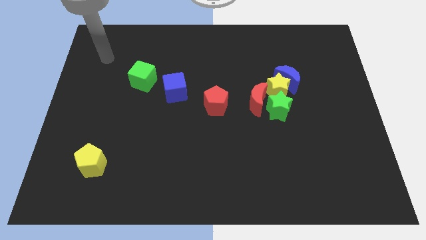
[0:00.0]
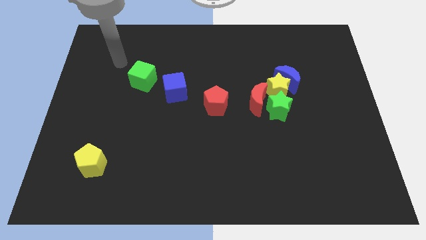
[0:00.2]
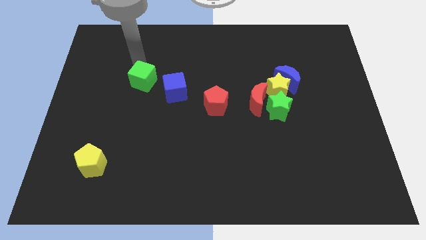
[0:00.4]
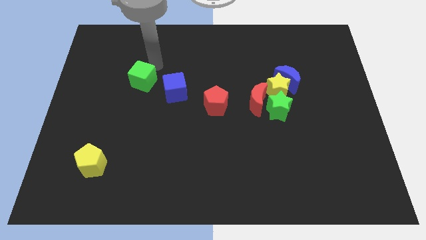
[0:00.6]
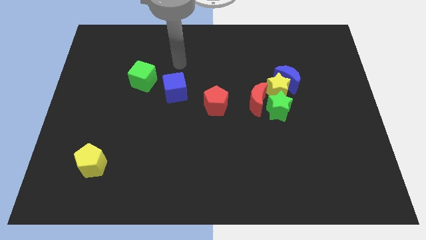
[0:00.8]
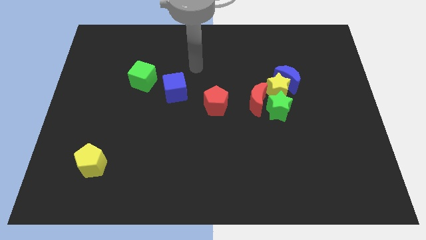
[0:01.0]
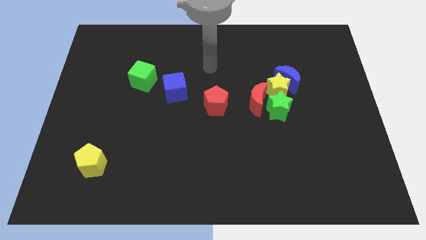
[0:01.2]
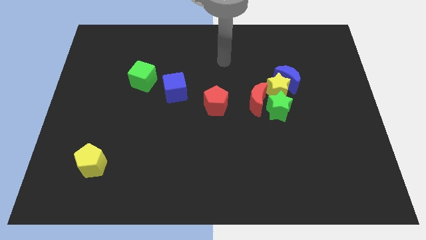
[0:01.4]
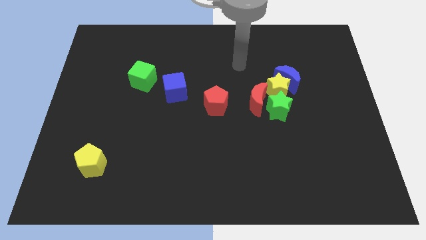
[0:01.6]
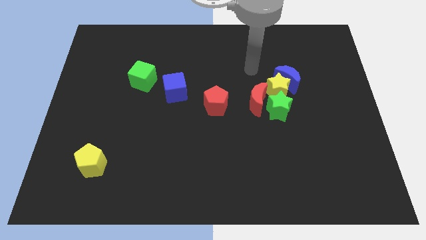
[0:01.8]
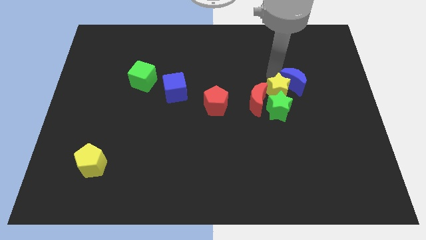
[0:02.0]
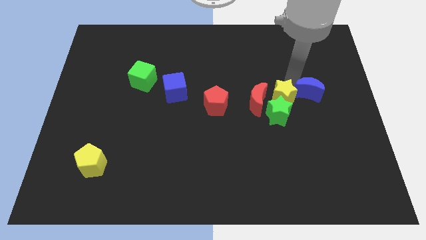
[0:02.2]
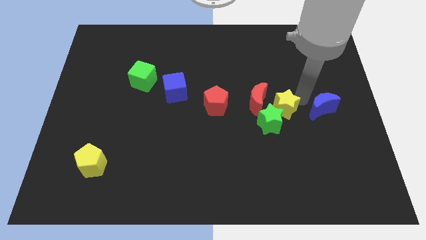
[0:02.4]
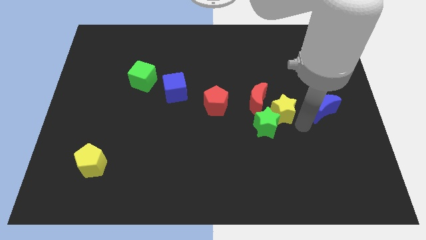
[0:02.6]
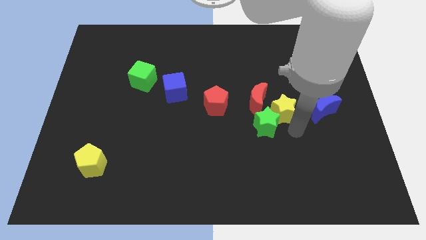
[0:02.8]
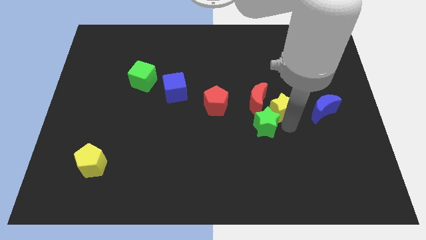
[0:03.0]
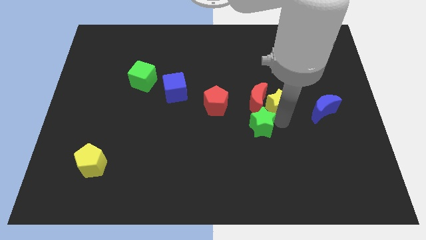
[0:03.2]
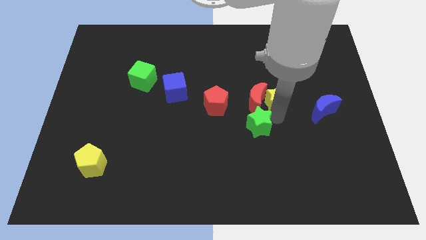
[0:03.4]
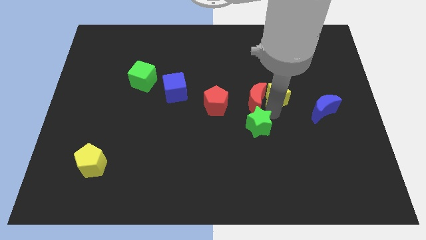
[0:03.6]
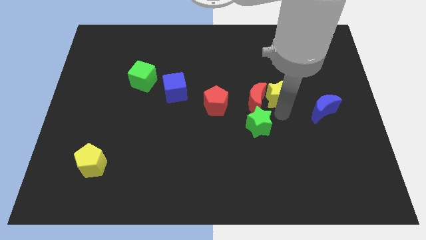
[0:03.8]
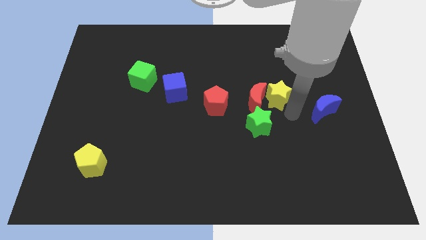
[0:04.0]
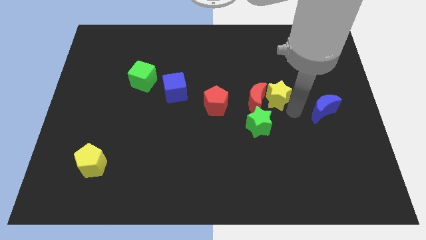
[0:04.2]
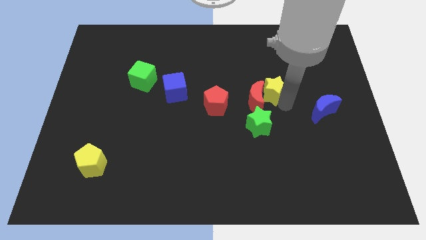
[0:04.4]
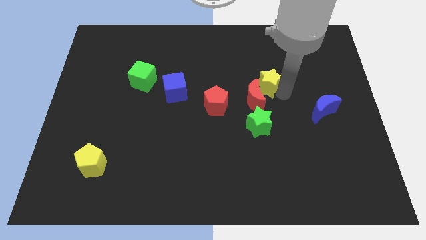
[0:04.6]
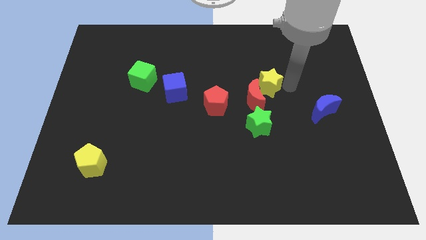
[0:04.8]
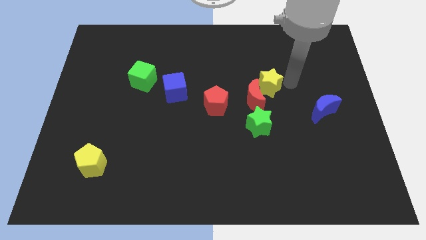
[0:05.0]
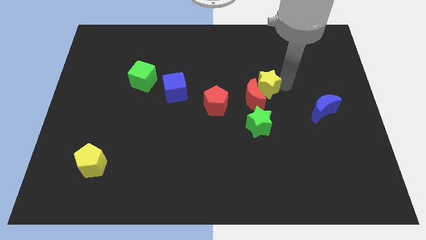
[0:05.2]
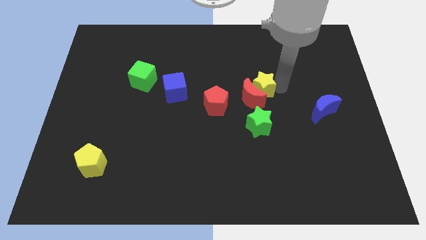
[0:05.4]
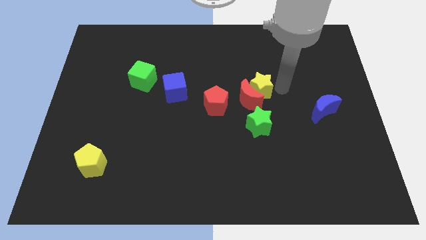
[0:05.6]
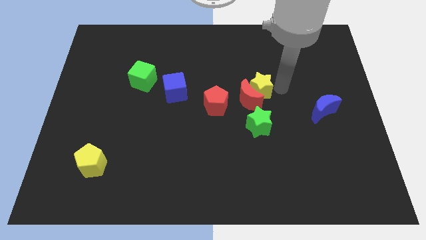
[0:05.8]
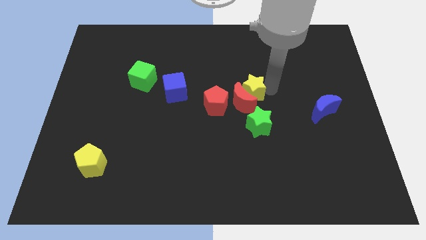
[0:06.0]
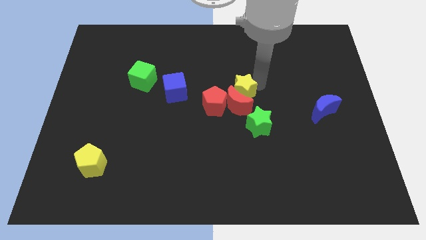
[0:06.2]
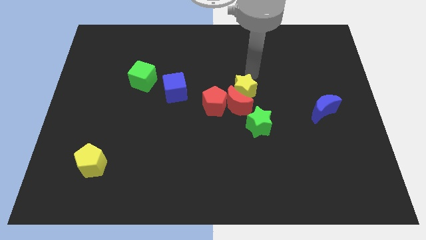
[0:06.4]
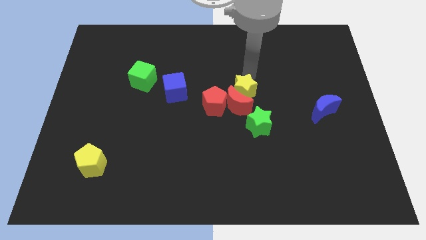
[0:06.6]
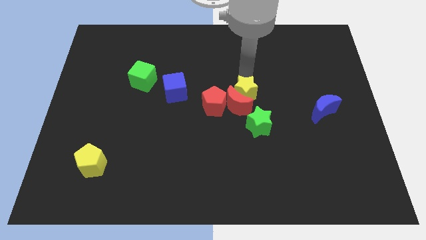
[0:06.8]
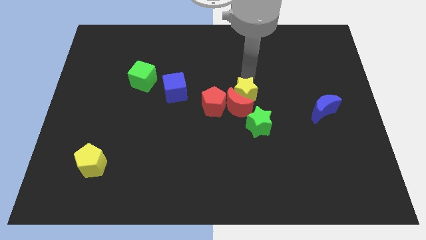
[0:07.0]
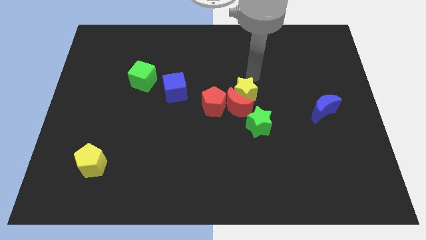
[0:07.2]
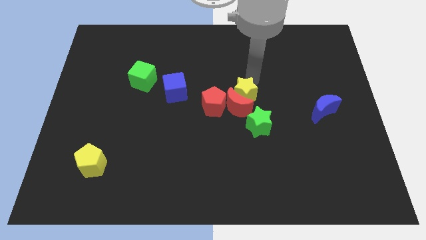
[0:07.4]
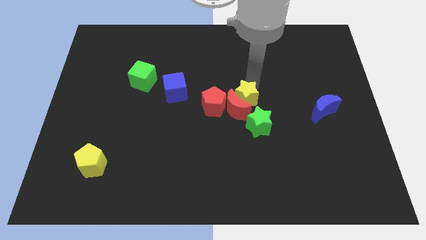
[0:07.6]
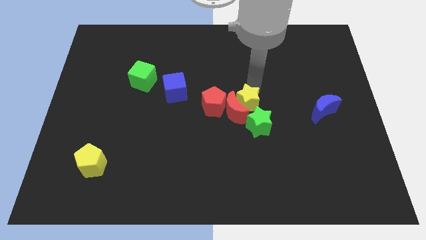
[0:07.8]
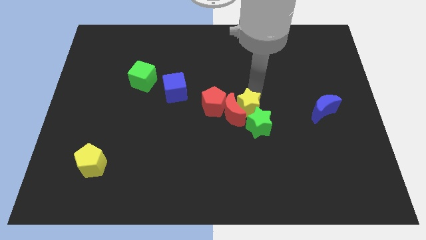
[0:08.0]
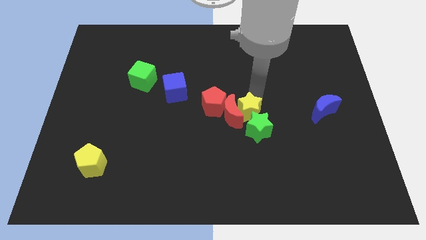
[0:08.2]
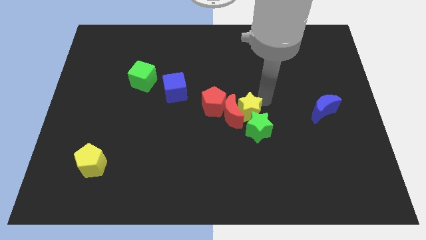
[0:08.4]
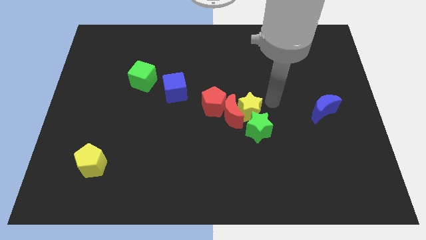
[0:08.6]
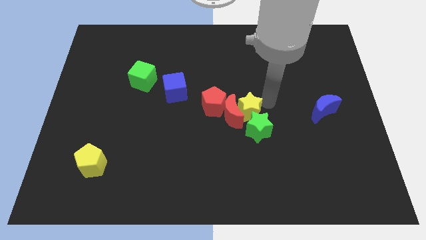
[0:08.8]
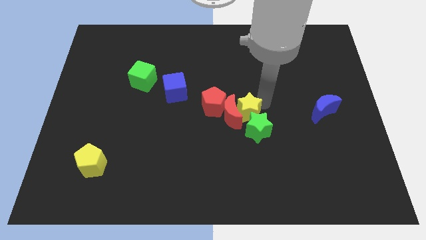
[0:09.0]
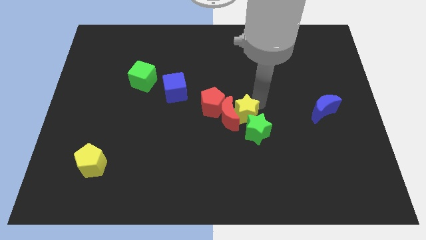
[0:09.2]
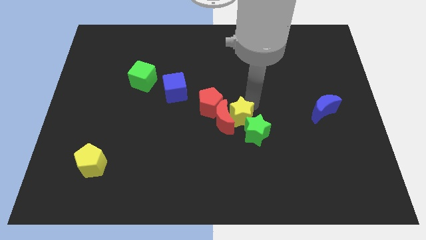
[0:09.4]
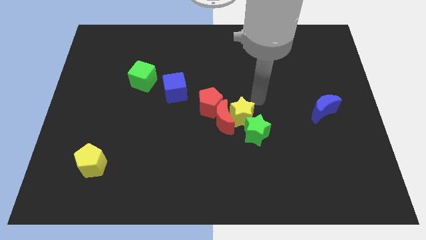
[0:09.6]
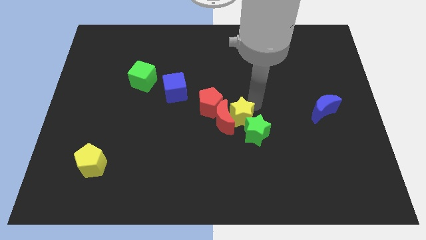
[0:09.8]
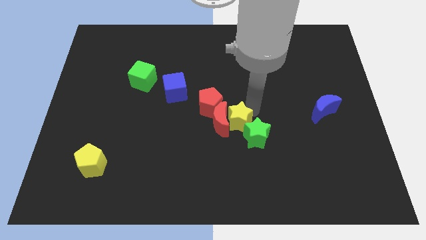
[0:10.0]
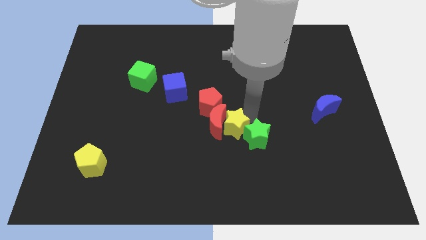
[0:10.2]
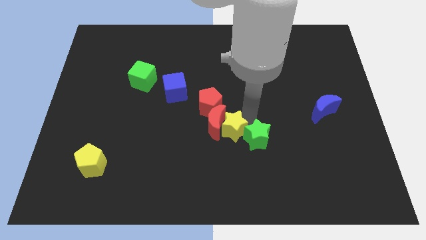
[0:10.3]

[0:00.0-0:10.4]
put the yellow star to the bottom side of the red pentagon

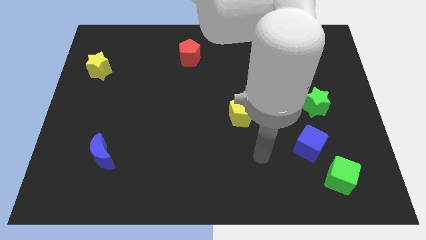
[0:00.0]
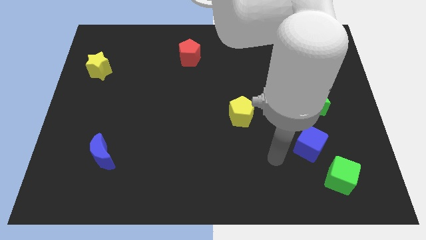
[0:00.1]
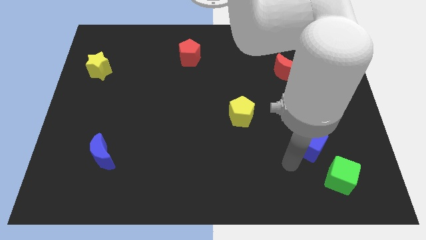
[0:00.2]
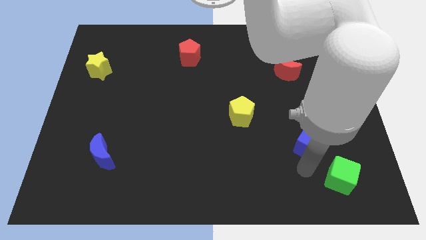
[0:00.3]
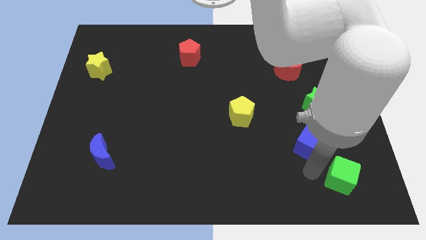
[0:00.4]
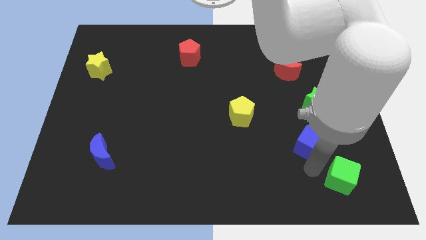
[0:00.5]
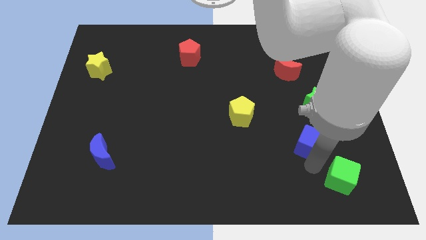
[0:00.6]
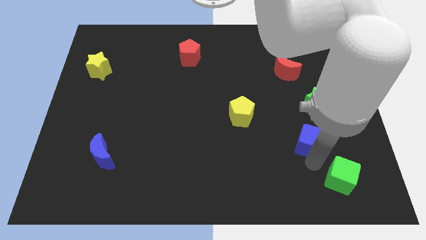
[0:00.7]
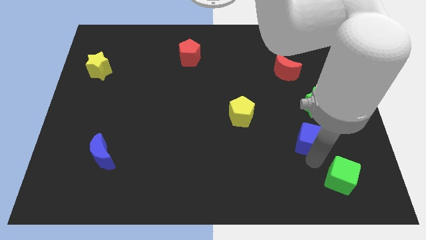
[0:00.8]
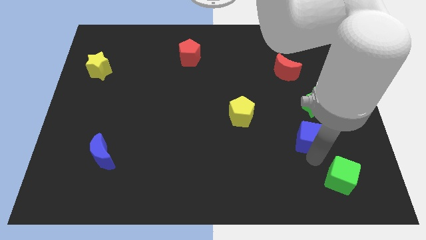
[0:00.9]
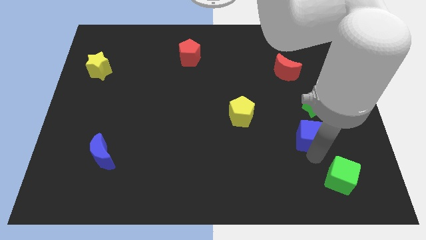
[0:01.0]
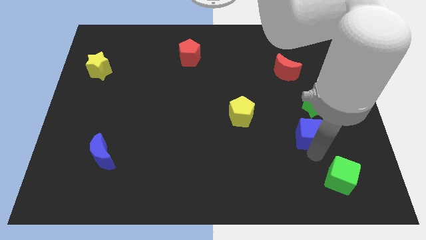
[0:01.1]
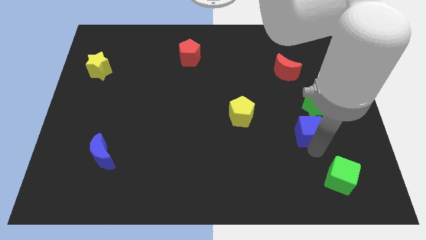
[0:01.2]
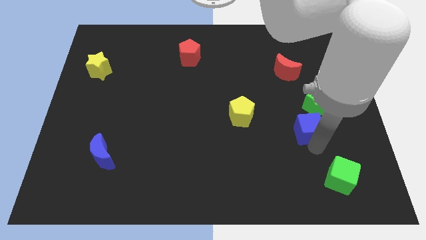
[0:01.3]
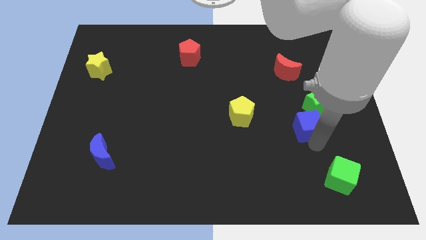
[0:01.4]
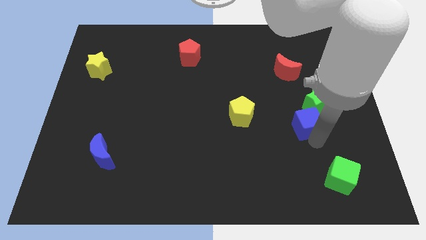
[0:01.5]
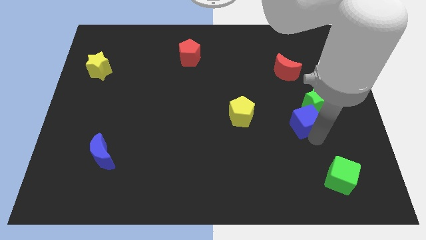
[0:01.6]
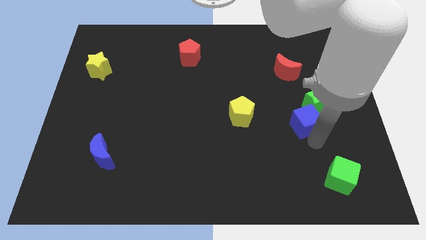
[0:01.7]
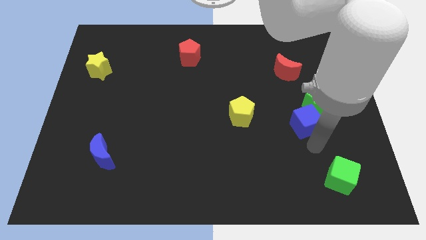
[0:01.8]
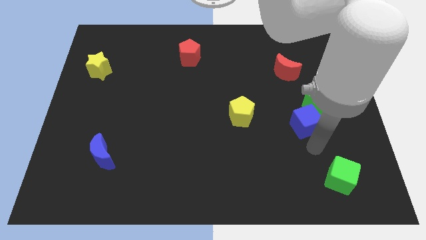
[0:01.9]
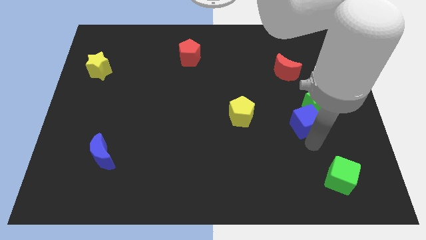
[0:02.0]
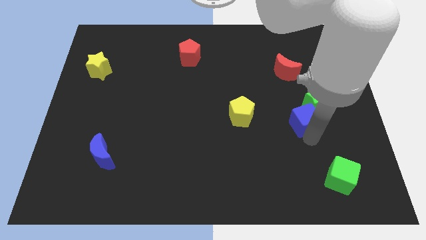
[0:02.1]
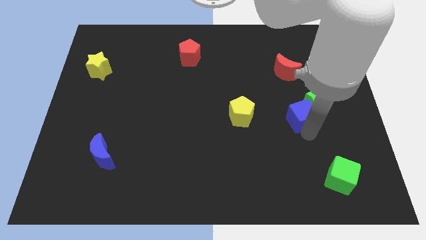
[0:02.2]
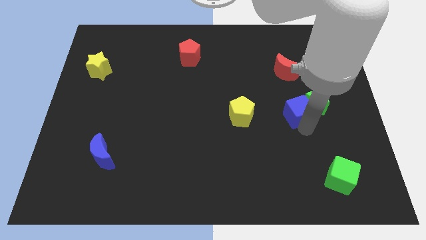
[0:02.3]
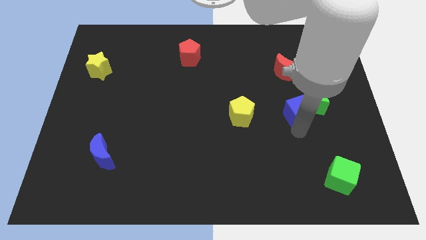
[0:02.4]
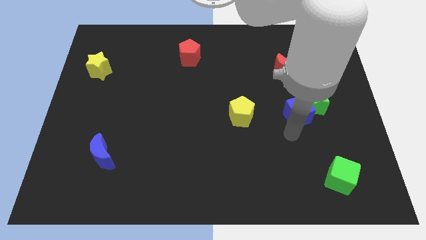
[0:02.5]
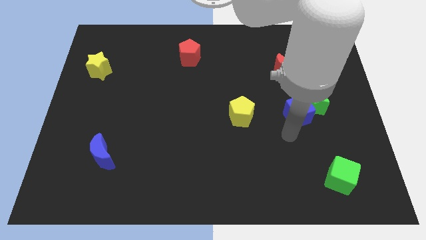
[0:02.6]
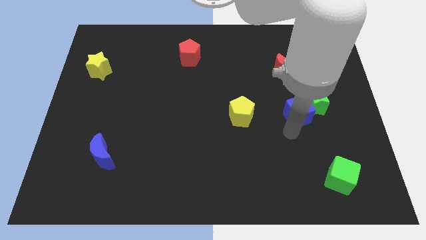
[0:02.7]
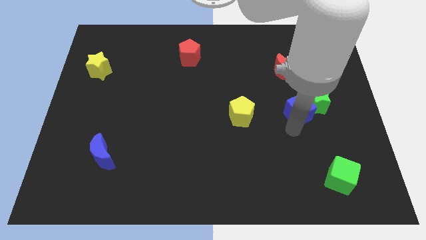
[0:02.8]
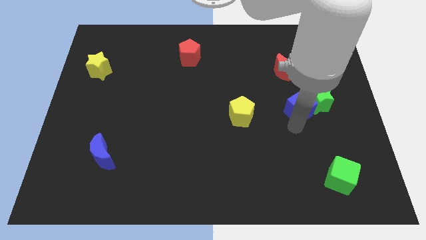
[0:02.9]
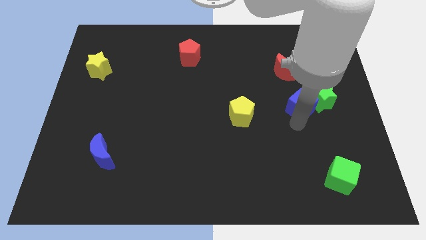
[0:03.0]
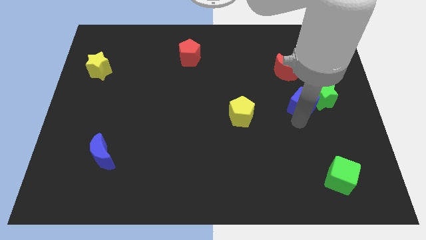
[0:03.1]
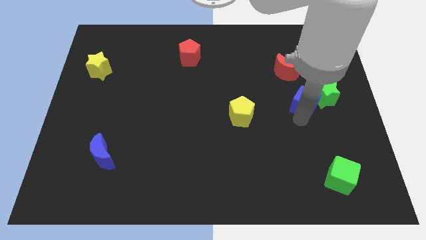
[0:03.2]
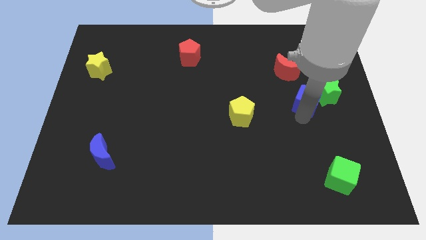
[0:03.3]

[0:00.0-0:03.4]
slide the blue cube to the bottom right of the red moon
